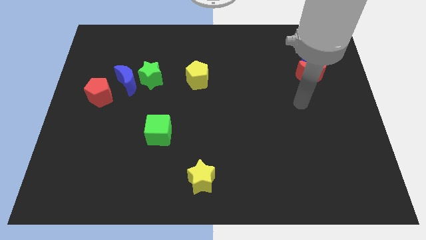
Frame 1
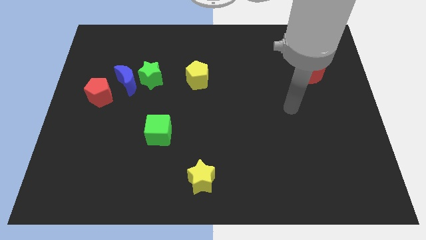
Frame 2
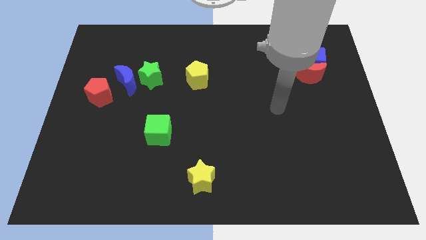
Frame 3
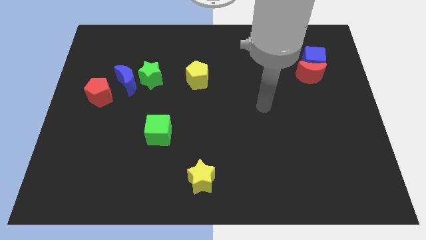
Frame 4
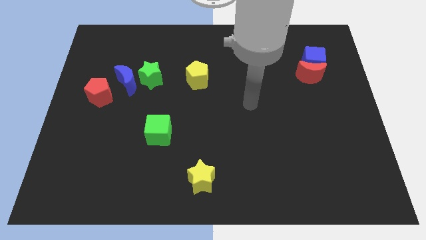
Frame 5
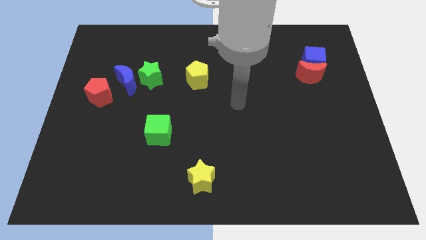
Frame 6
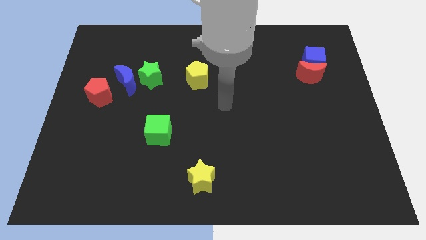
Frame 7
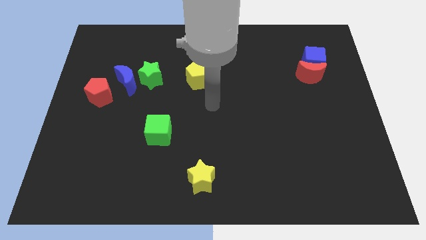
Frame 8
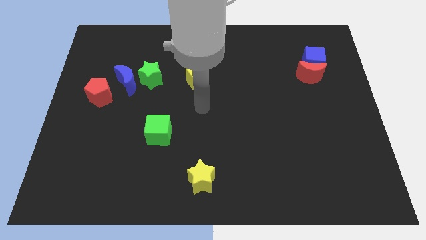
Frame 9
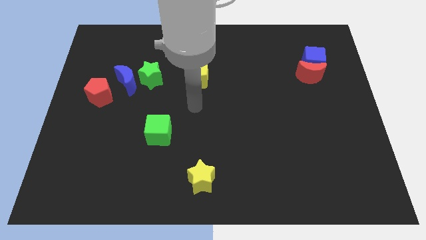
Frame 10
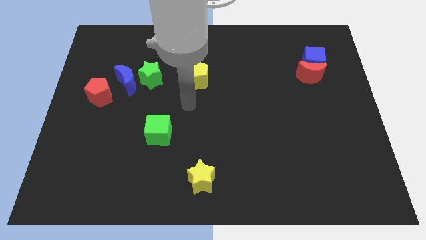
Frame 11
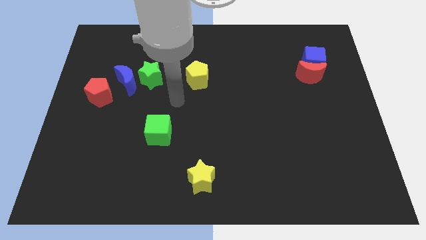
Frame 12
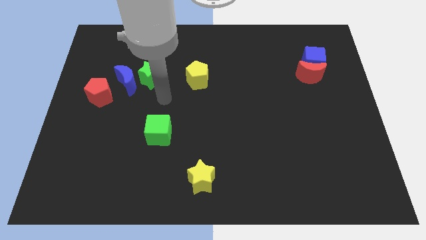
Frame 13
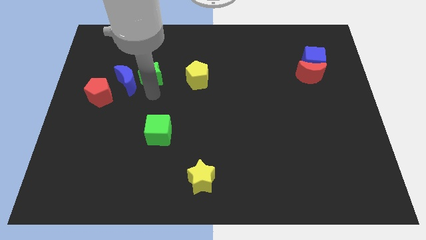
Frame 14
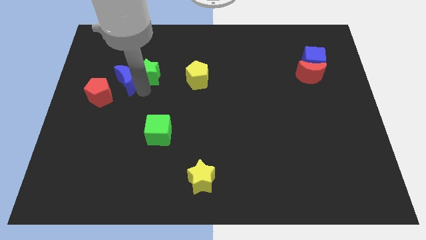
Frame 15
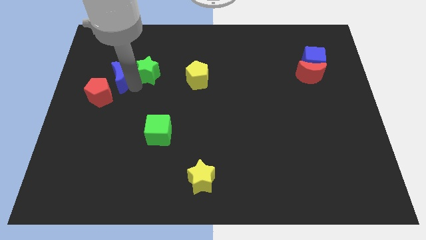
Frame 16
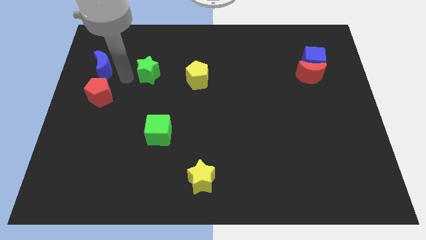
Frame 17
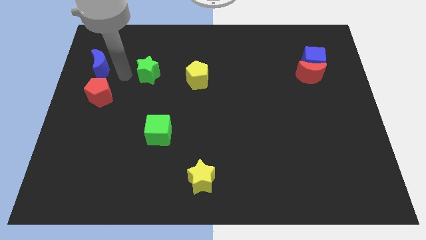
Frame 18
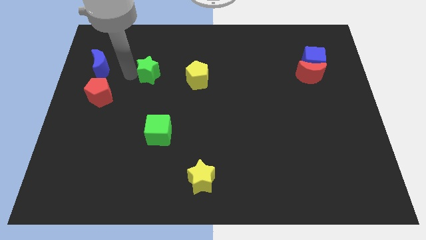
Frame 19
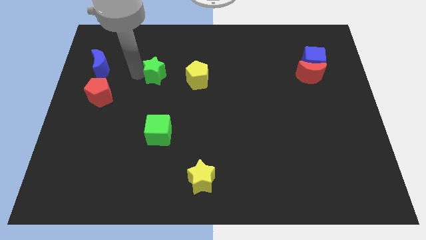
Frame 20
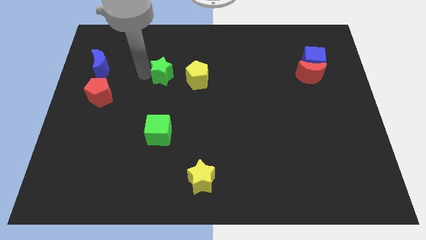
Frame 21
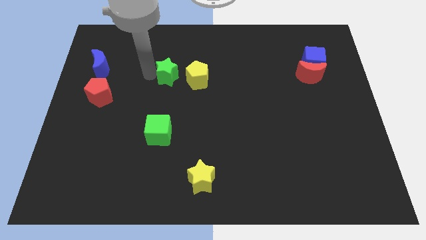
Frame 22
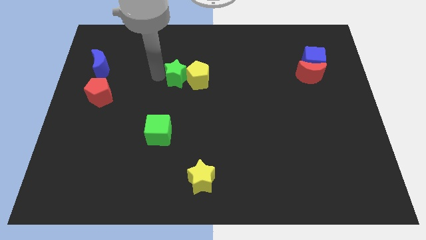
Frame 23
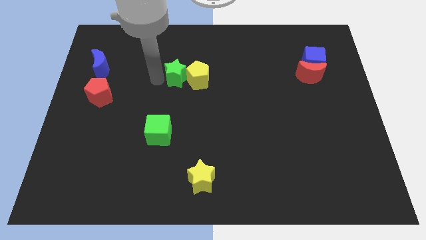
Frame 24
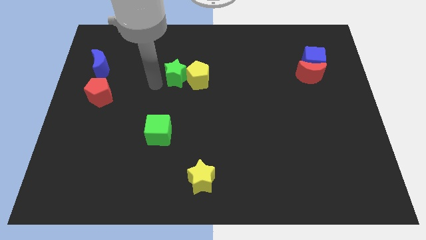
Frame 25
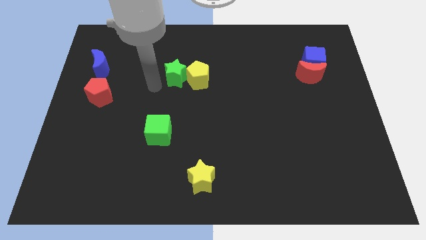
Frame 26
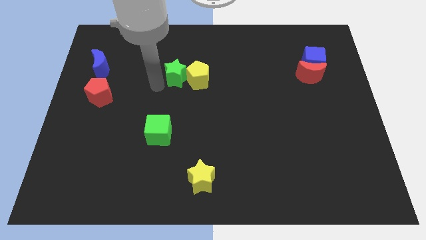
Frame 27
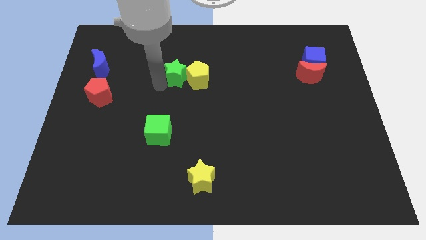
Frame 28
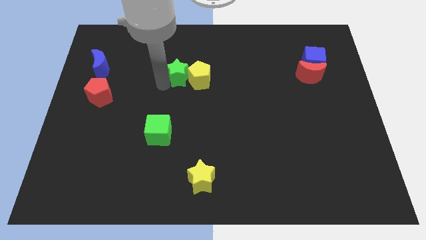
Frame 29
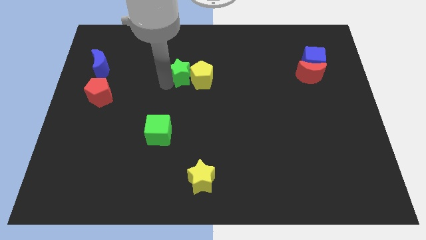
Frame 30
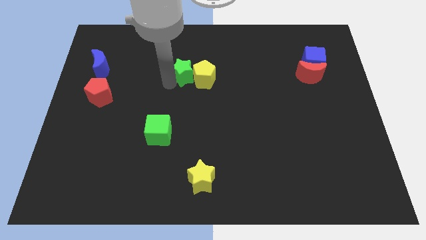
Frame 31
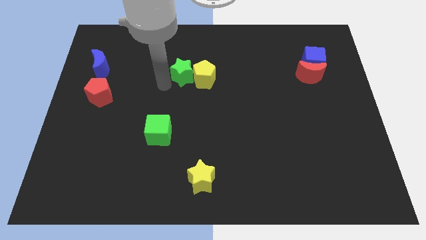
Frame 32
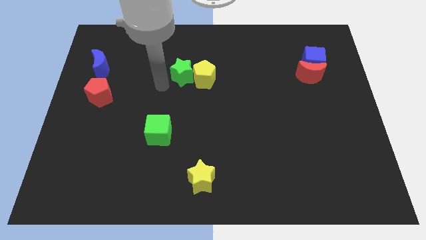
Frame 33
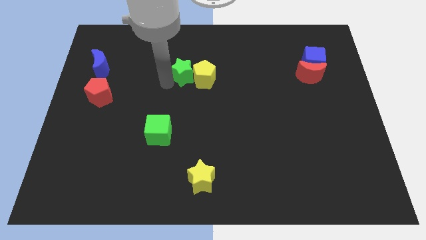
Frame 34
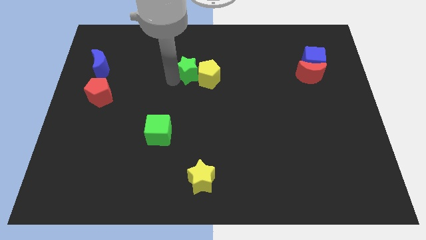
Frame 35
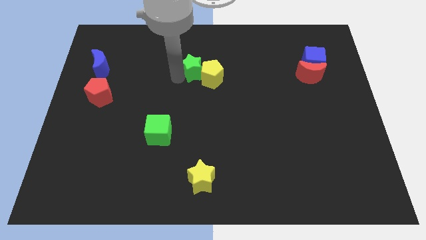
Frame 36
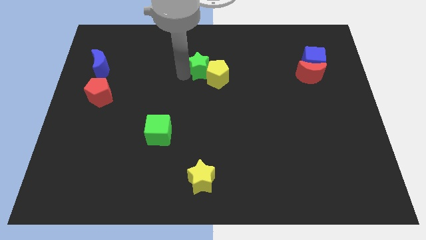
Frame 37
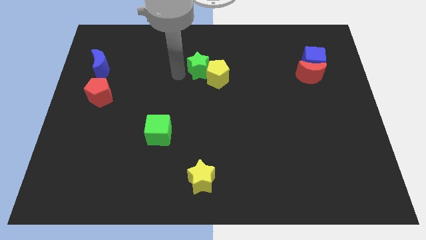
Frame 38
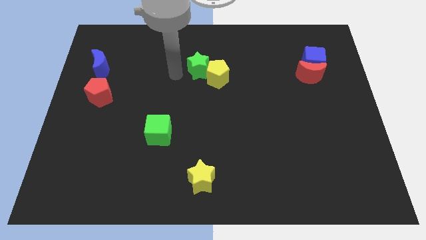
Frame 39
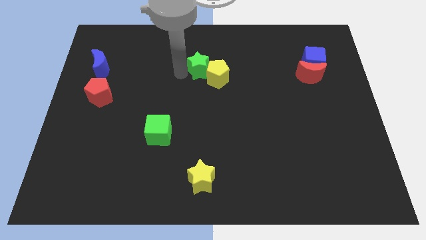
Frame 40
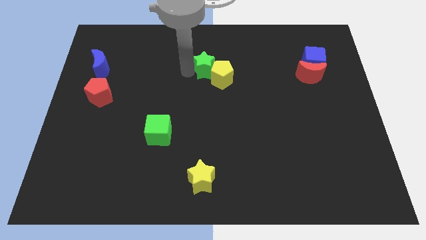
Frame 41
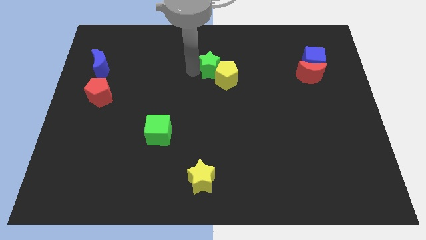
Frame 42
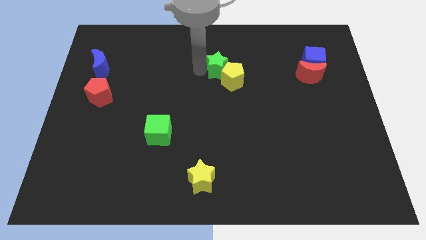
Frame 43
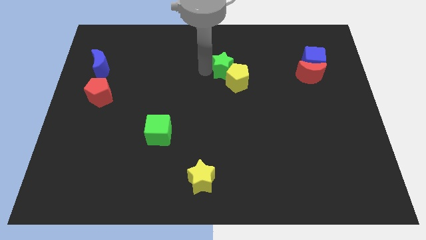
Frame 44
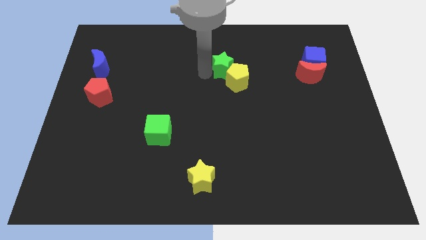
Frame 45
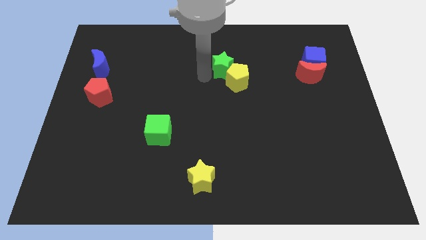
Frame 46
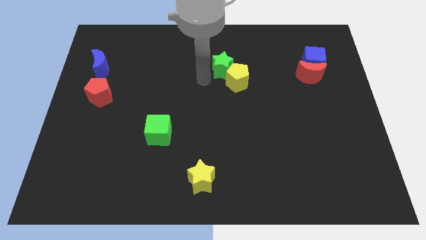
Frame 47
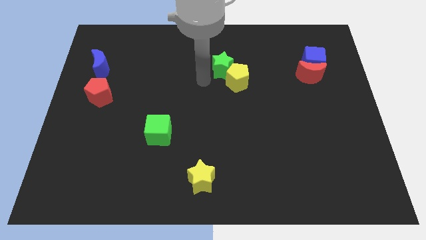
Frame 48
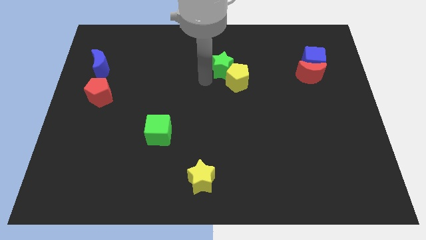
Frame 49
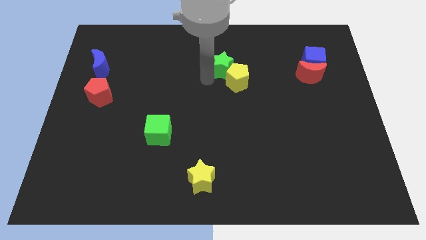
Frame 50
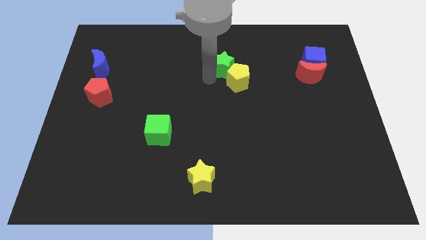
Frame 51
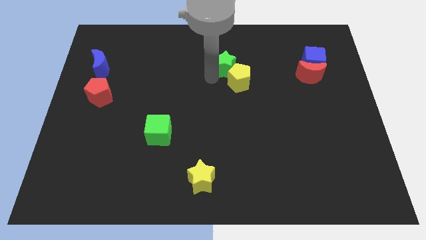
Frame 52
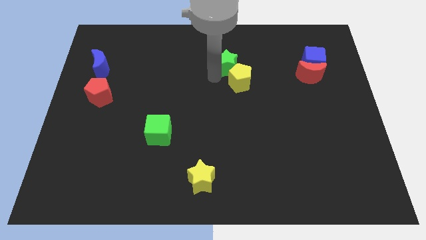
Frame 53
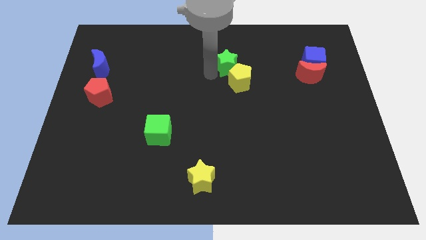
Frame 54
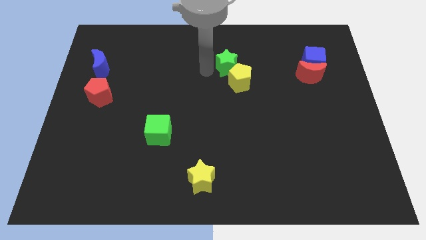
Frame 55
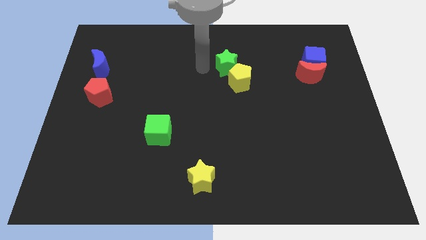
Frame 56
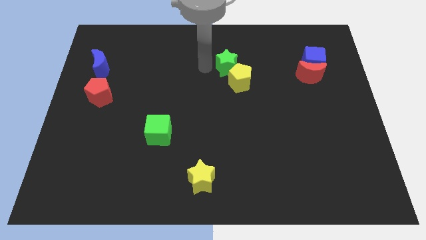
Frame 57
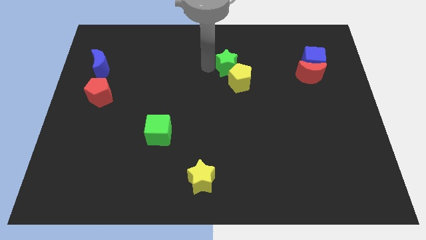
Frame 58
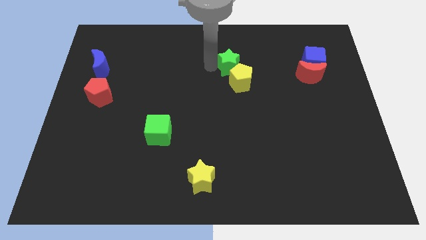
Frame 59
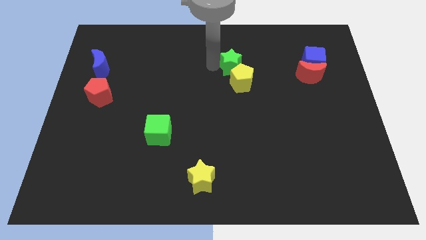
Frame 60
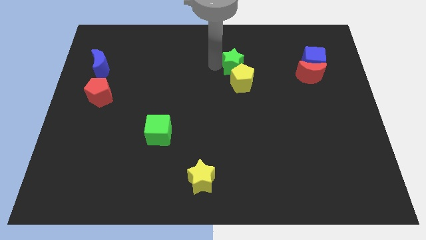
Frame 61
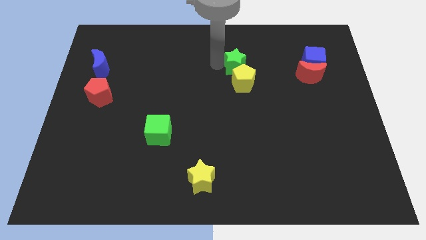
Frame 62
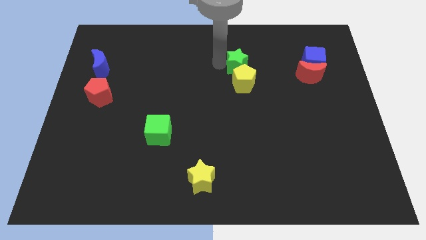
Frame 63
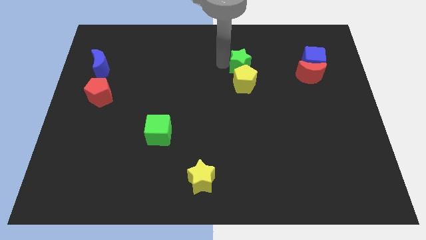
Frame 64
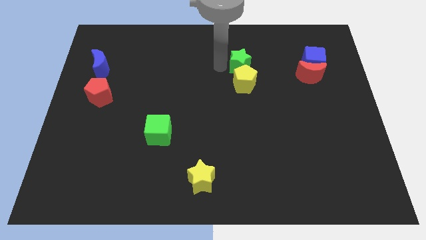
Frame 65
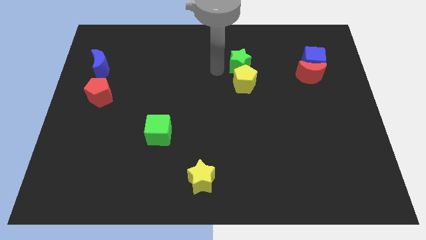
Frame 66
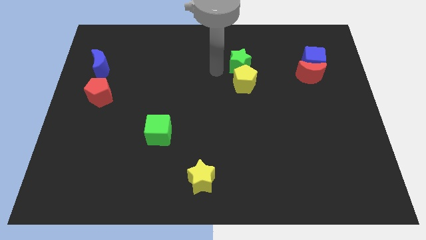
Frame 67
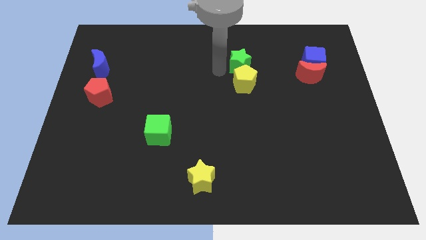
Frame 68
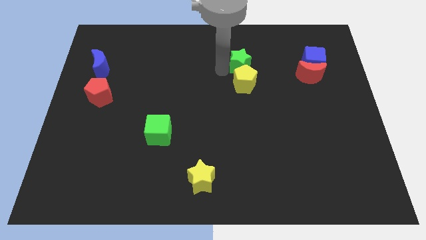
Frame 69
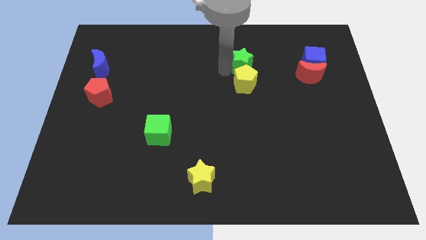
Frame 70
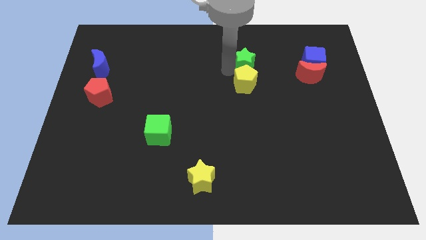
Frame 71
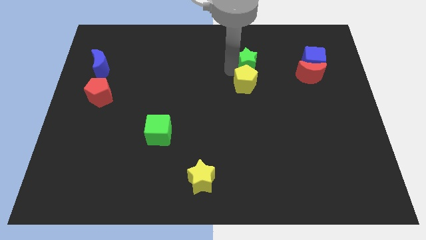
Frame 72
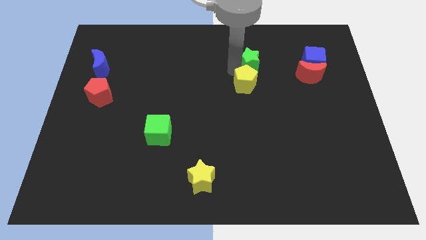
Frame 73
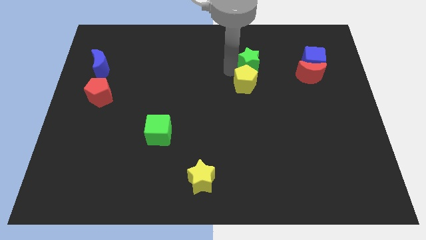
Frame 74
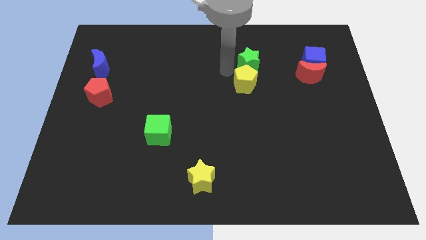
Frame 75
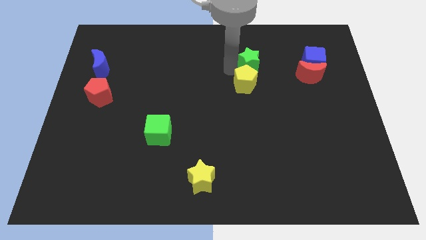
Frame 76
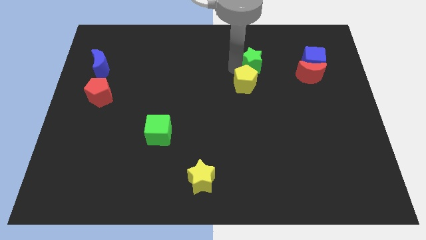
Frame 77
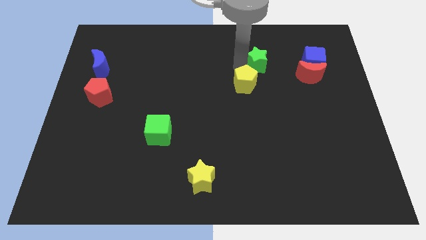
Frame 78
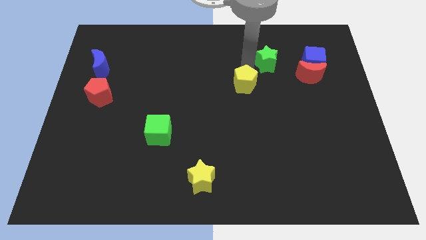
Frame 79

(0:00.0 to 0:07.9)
push the green star diagonally up and to the left of the red moon

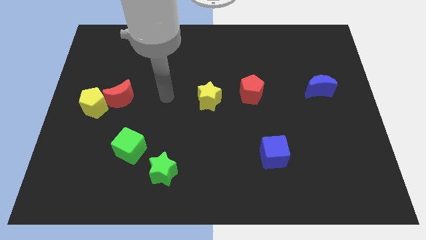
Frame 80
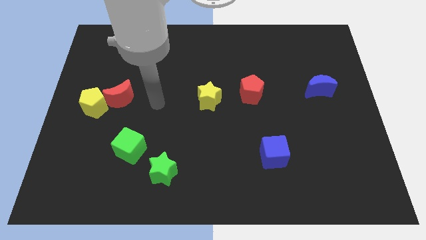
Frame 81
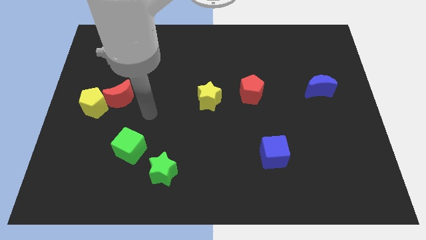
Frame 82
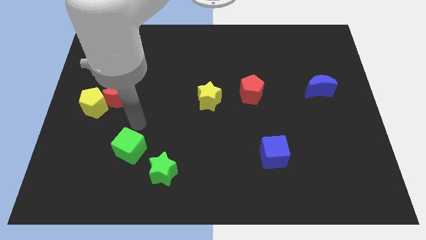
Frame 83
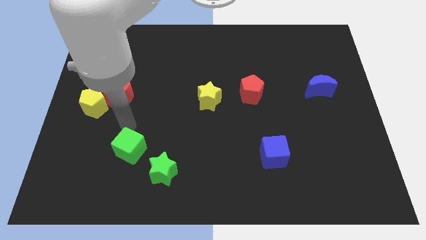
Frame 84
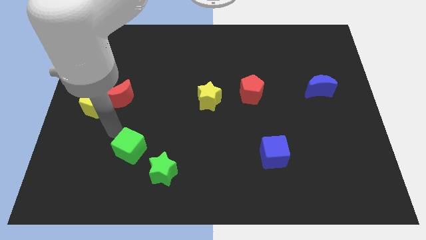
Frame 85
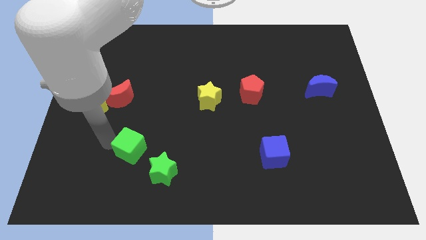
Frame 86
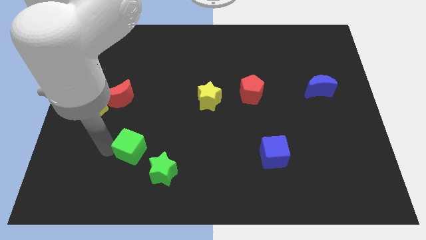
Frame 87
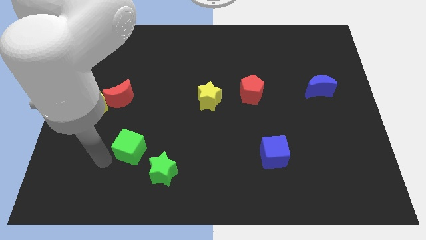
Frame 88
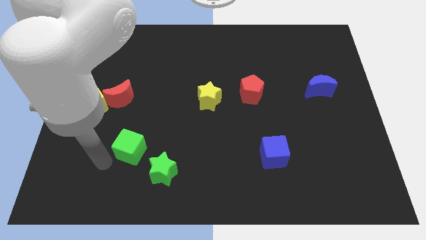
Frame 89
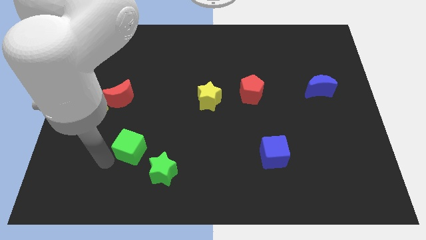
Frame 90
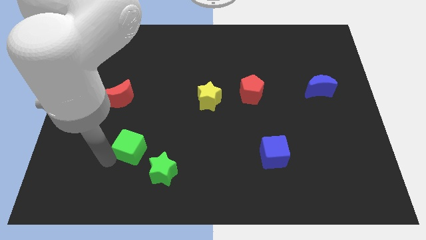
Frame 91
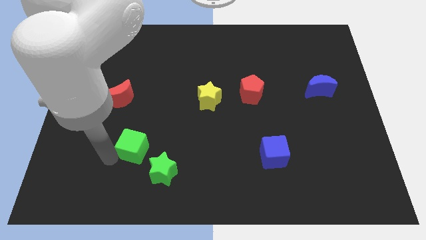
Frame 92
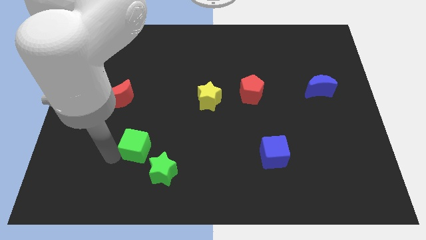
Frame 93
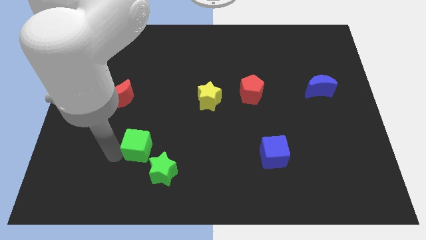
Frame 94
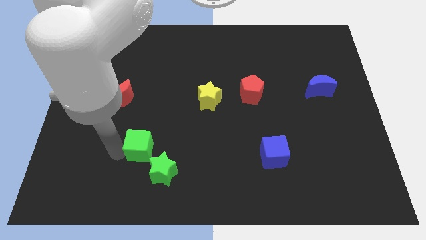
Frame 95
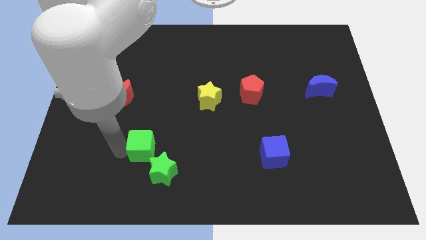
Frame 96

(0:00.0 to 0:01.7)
move the green cube to the top side of the green star
